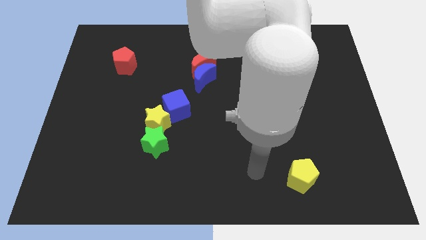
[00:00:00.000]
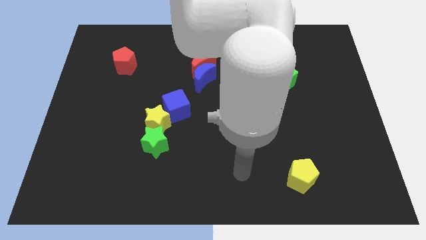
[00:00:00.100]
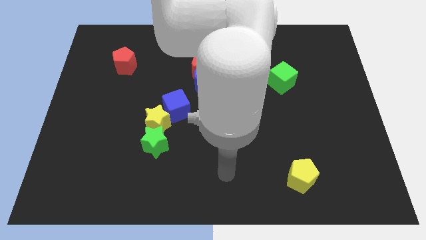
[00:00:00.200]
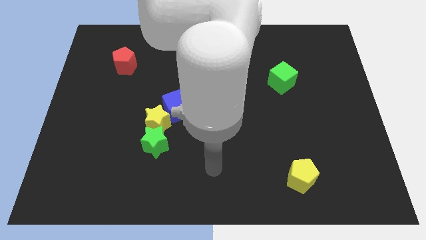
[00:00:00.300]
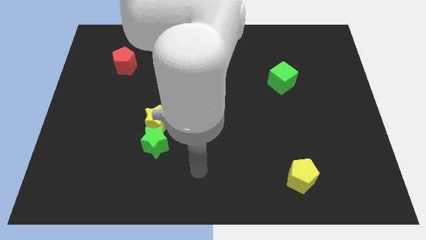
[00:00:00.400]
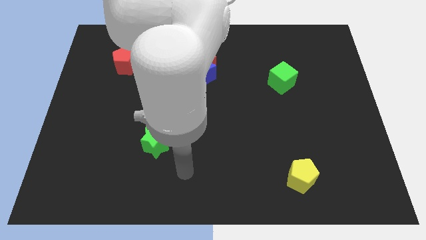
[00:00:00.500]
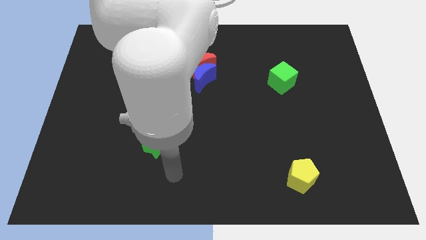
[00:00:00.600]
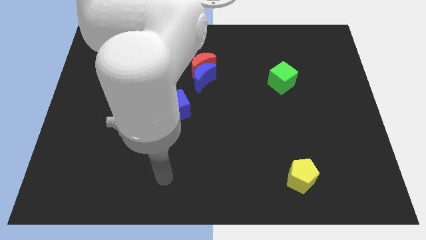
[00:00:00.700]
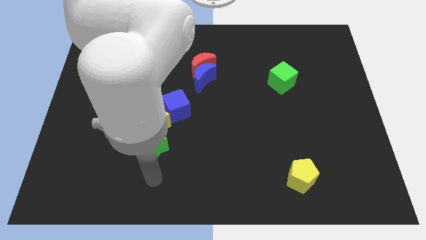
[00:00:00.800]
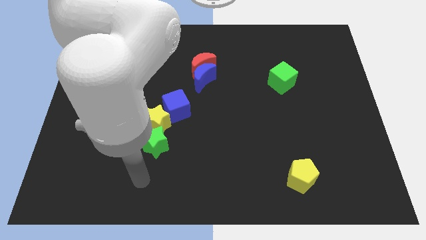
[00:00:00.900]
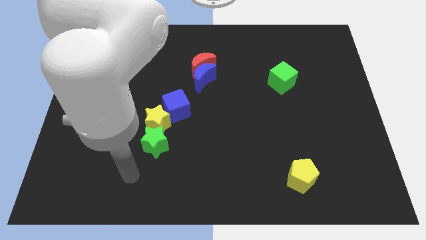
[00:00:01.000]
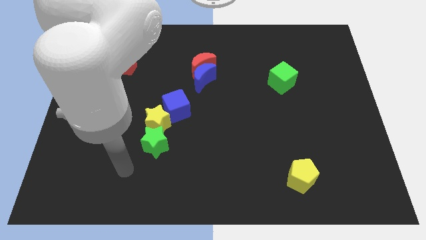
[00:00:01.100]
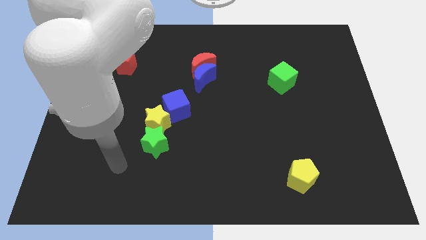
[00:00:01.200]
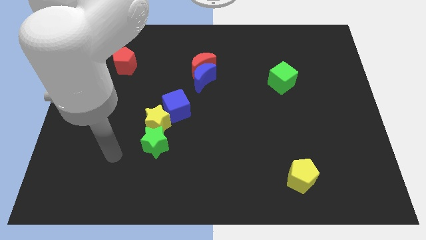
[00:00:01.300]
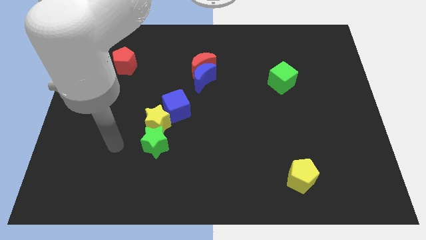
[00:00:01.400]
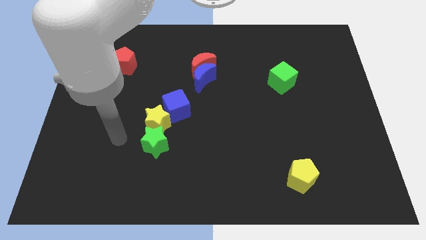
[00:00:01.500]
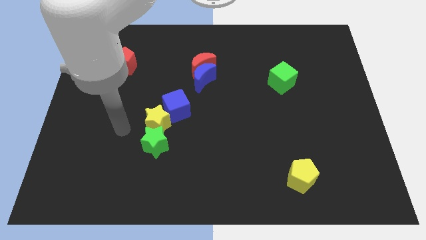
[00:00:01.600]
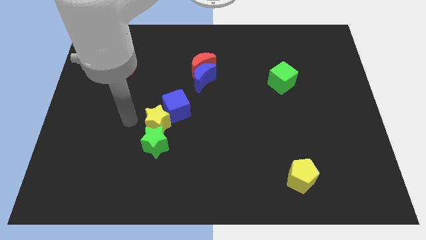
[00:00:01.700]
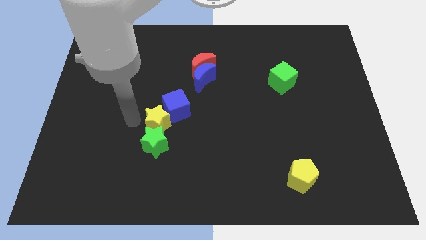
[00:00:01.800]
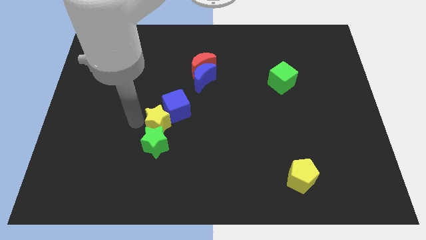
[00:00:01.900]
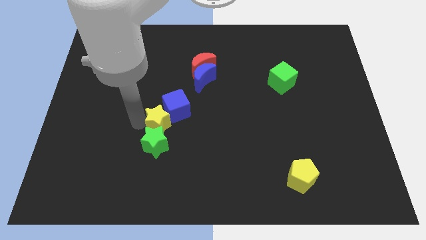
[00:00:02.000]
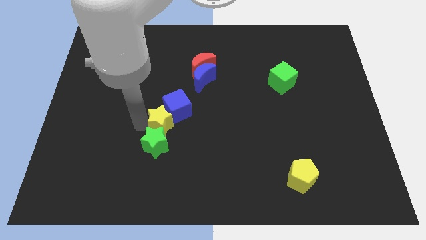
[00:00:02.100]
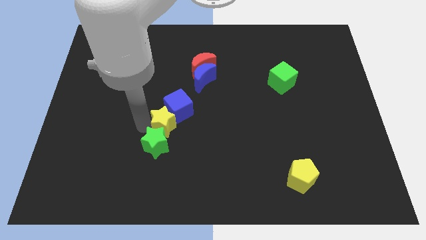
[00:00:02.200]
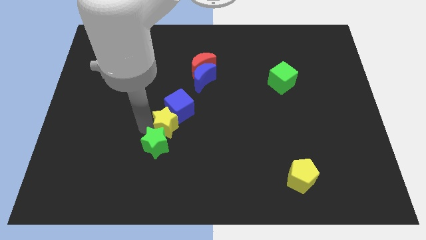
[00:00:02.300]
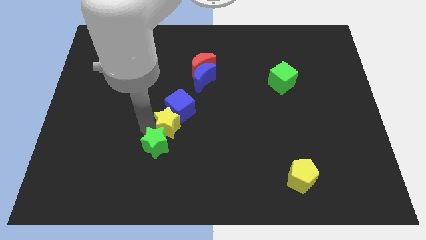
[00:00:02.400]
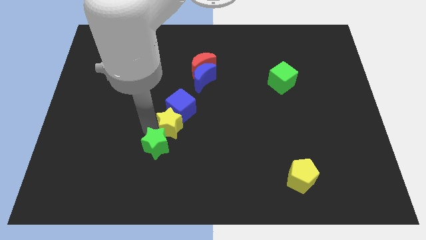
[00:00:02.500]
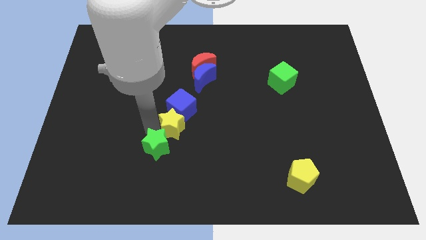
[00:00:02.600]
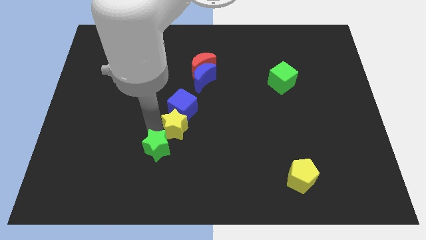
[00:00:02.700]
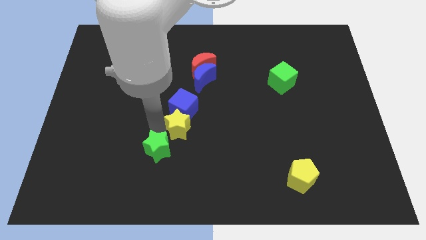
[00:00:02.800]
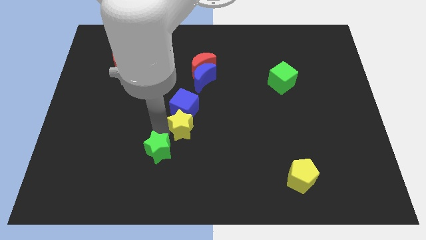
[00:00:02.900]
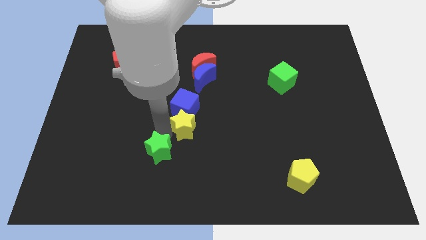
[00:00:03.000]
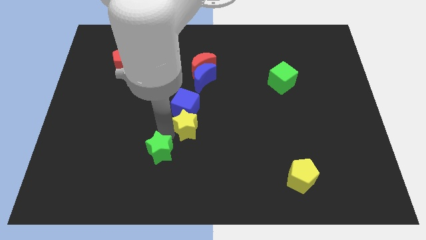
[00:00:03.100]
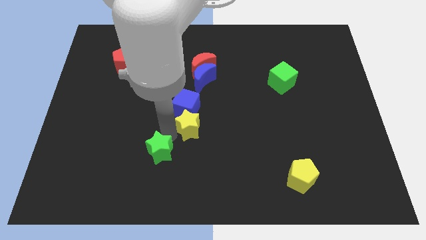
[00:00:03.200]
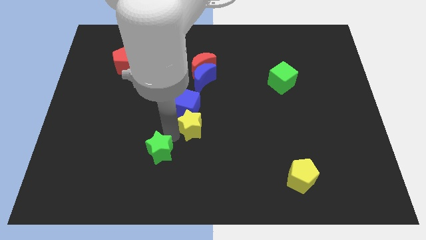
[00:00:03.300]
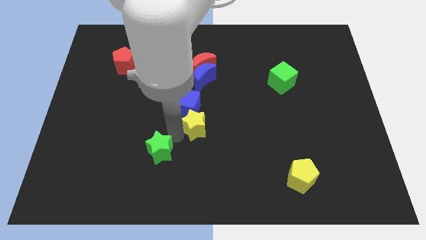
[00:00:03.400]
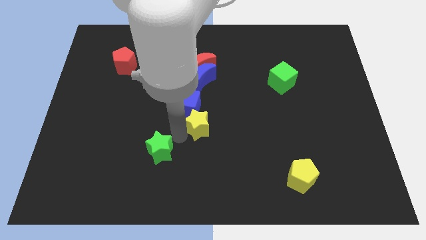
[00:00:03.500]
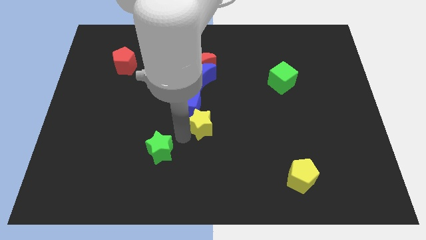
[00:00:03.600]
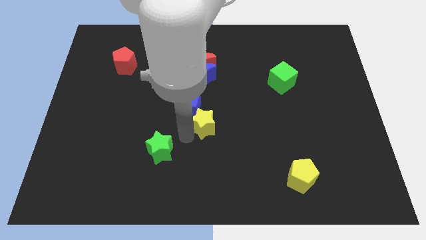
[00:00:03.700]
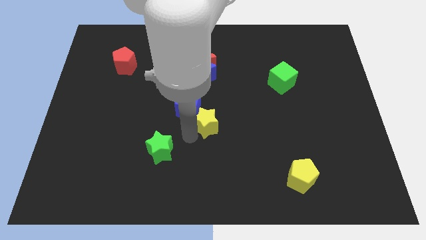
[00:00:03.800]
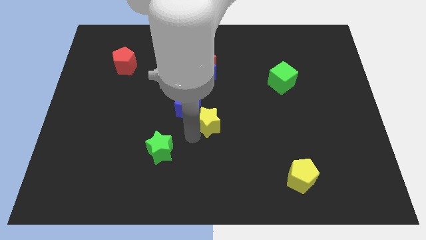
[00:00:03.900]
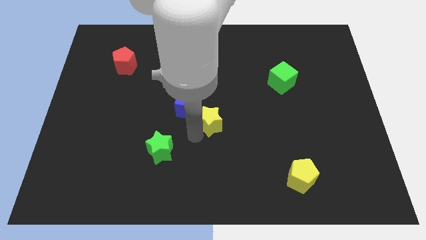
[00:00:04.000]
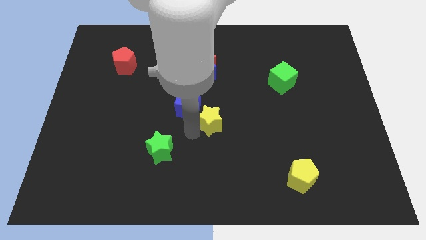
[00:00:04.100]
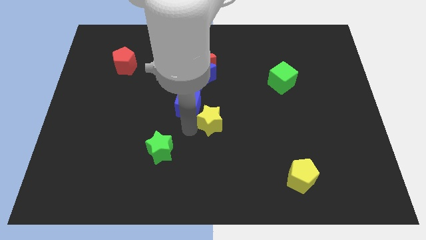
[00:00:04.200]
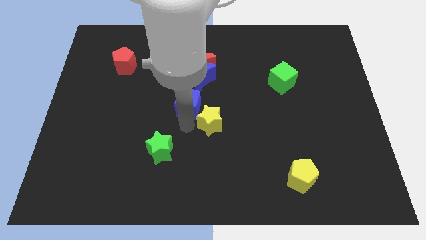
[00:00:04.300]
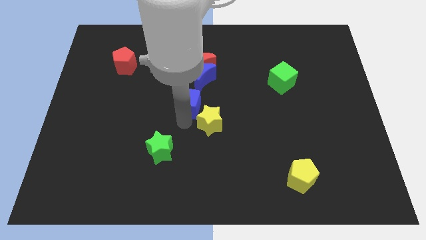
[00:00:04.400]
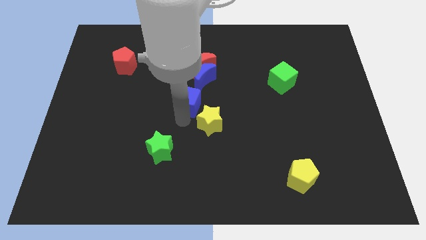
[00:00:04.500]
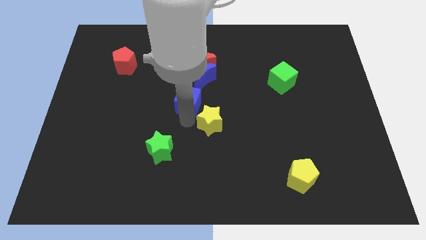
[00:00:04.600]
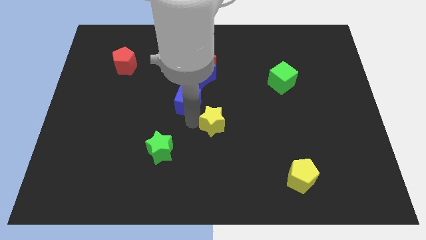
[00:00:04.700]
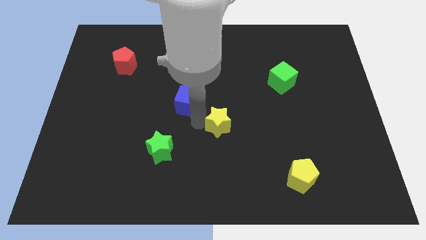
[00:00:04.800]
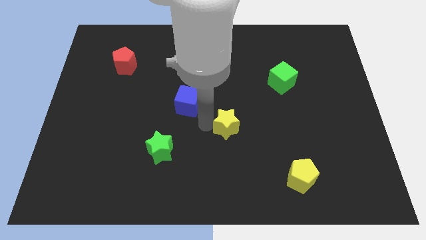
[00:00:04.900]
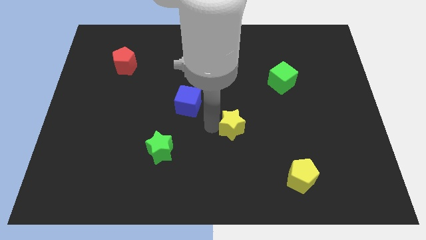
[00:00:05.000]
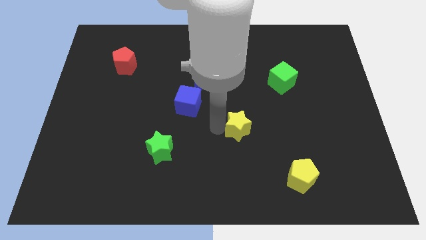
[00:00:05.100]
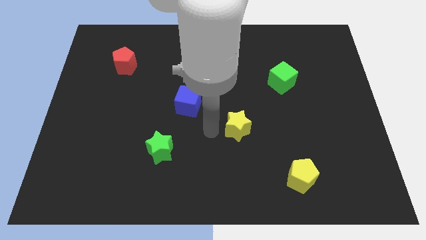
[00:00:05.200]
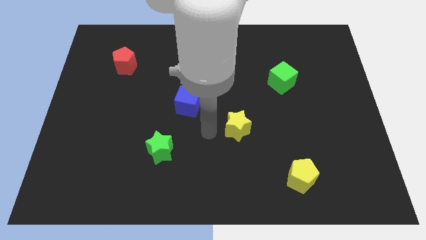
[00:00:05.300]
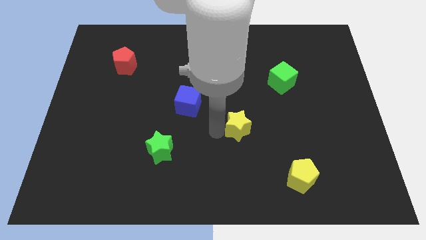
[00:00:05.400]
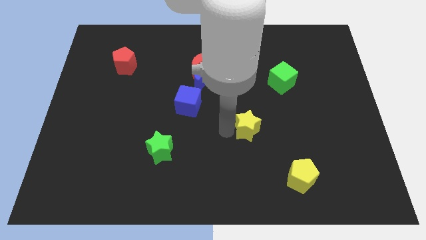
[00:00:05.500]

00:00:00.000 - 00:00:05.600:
move the yellow star to the right

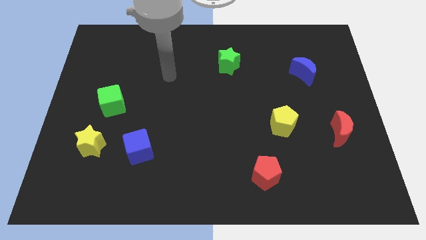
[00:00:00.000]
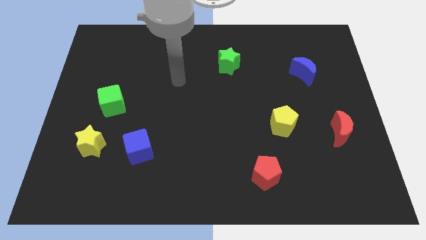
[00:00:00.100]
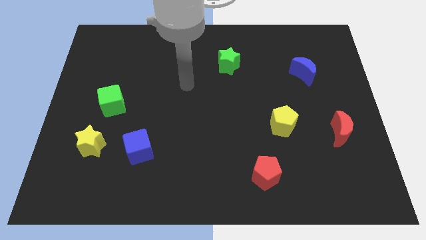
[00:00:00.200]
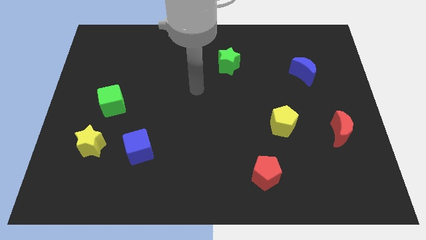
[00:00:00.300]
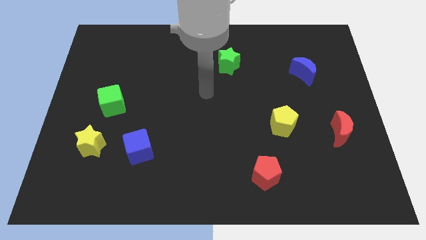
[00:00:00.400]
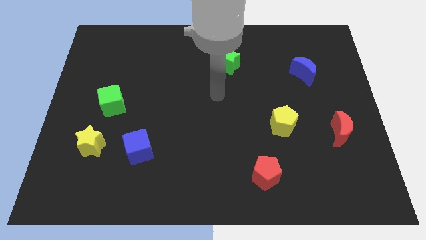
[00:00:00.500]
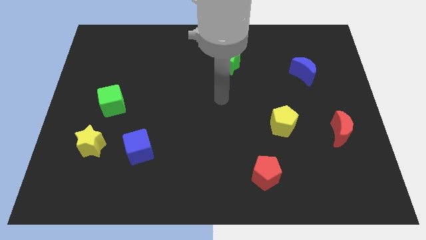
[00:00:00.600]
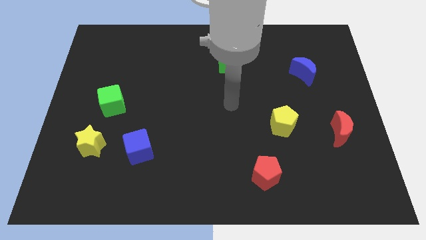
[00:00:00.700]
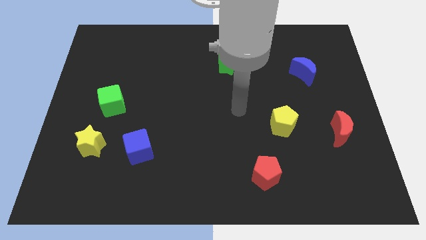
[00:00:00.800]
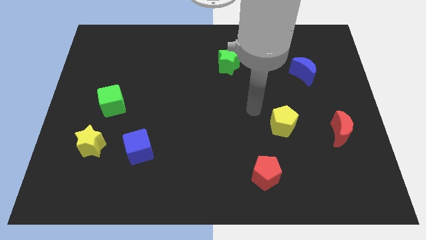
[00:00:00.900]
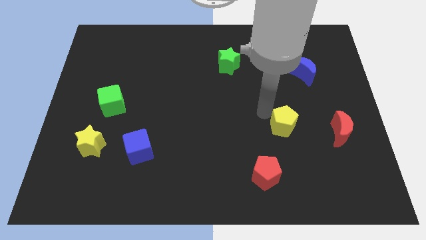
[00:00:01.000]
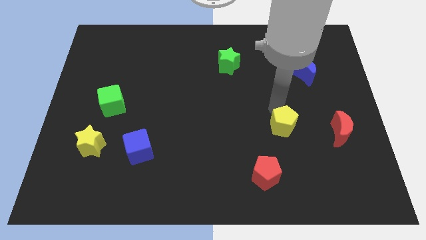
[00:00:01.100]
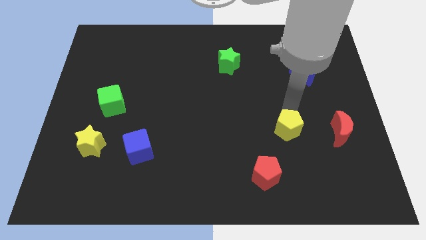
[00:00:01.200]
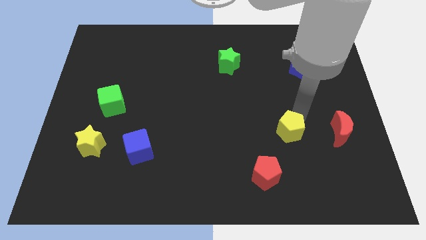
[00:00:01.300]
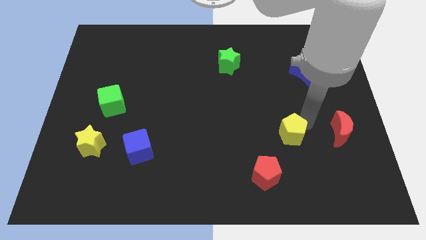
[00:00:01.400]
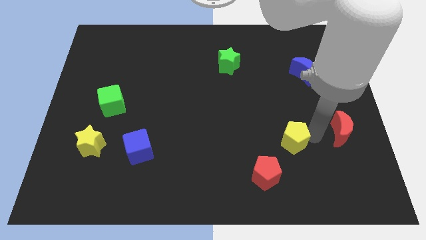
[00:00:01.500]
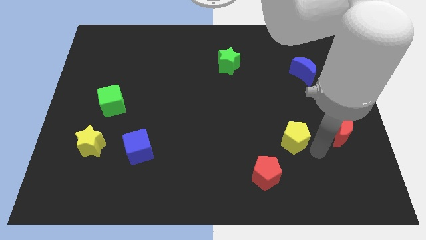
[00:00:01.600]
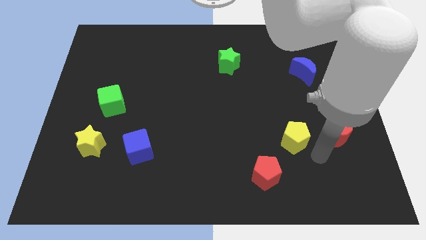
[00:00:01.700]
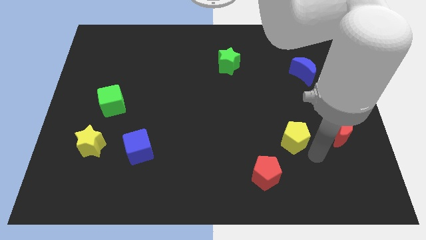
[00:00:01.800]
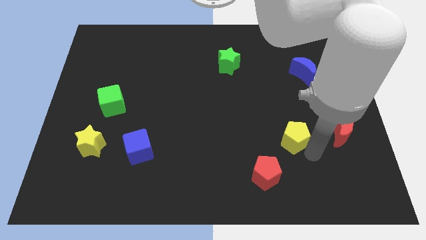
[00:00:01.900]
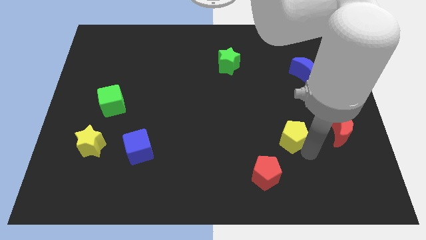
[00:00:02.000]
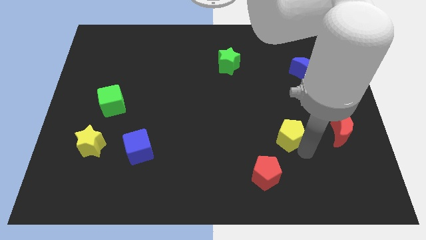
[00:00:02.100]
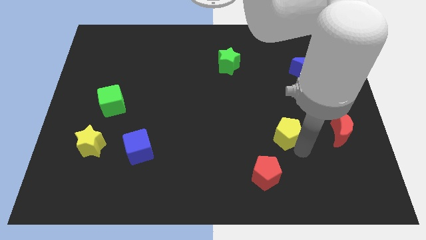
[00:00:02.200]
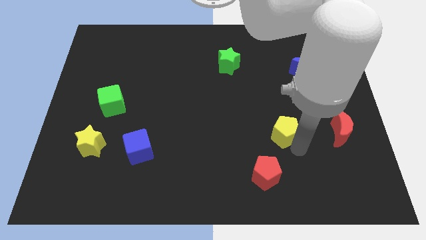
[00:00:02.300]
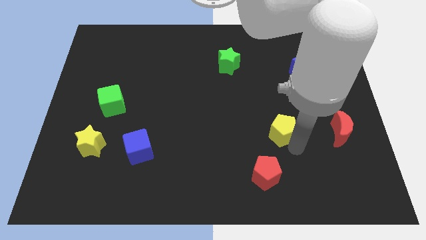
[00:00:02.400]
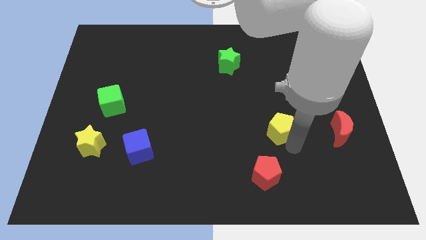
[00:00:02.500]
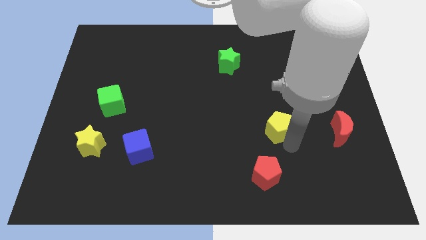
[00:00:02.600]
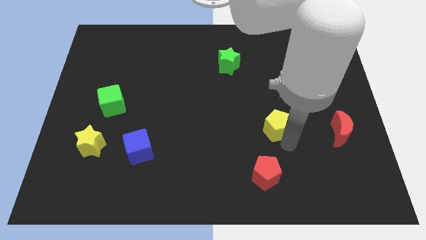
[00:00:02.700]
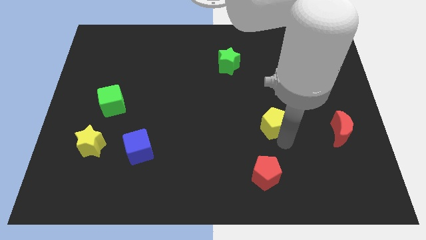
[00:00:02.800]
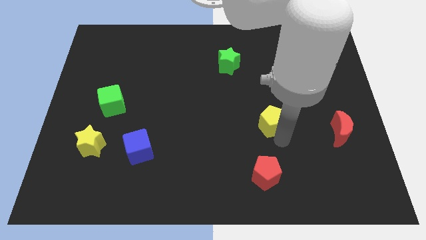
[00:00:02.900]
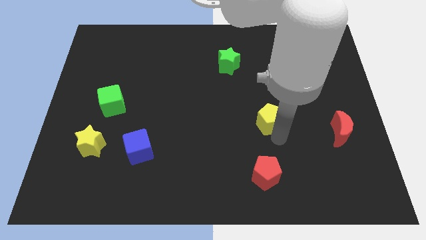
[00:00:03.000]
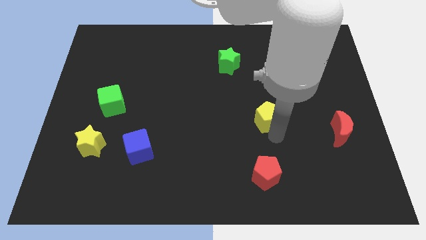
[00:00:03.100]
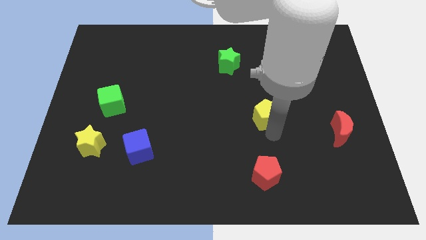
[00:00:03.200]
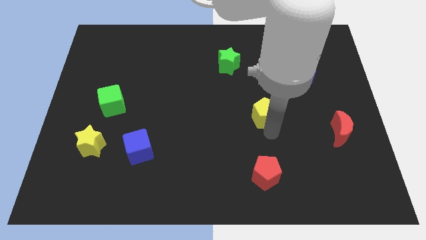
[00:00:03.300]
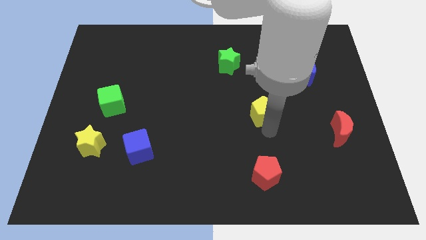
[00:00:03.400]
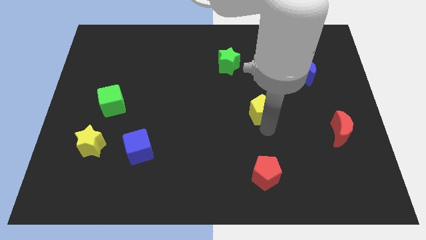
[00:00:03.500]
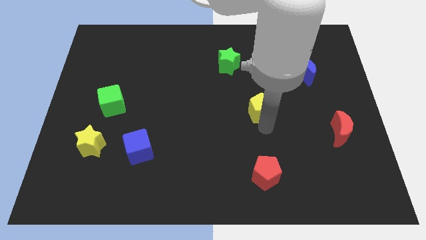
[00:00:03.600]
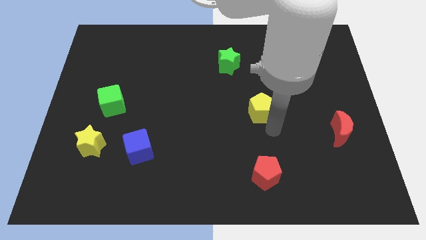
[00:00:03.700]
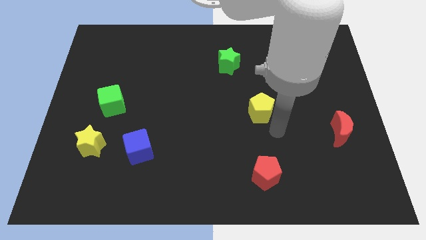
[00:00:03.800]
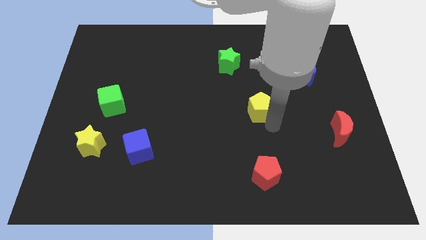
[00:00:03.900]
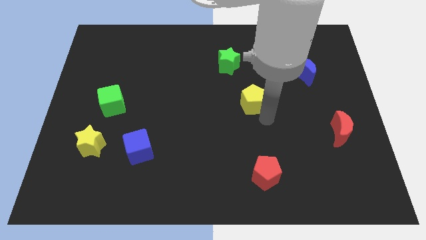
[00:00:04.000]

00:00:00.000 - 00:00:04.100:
slightly push the yellow pentagon upwards and then left
